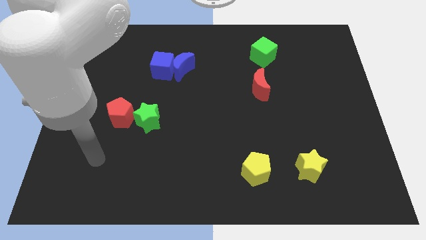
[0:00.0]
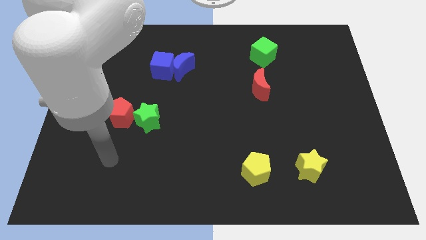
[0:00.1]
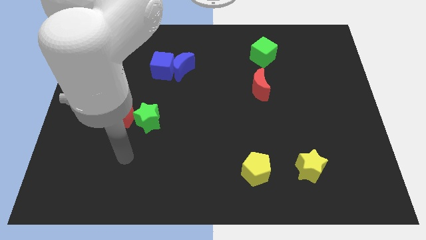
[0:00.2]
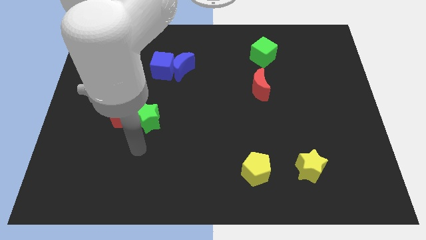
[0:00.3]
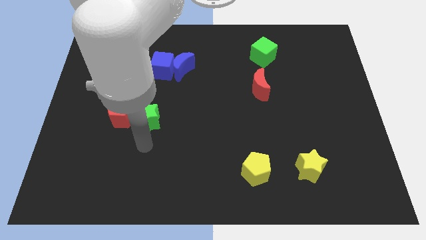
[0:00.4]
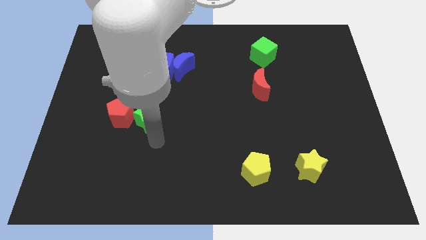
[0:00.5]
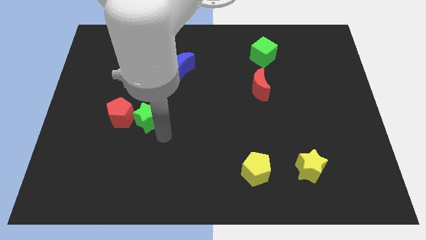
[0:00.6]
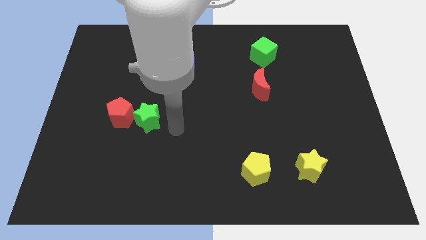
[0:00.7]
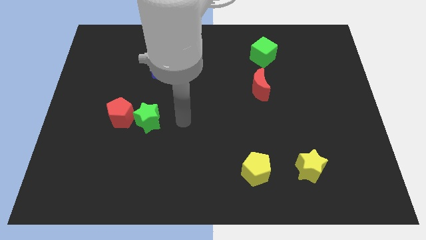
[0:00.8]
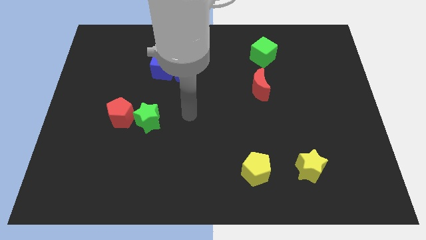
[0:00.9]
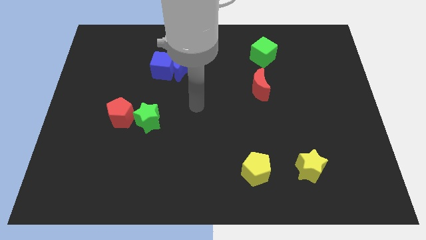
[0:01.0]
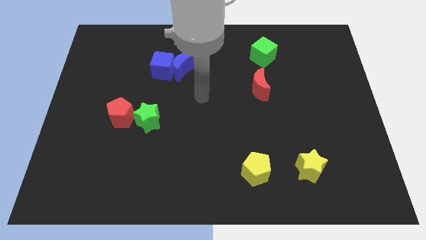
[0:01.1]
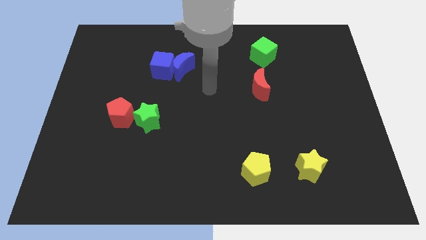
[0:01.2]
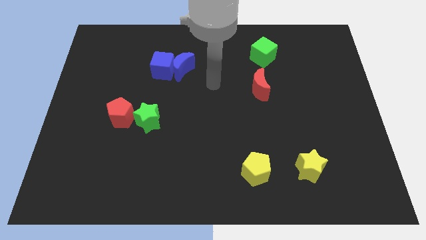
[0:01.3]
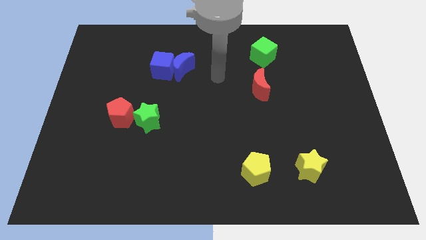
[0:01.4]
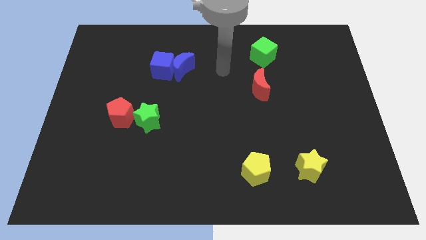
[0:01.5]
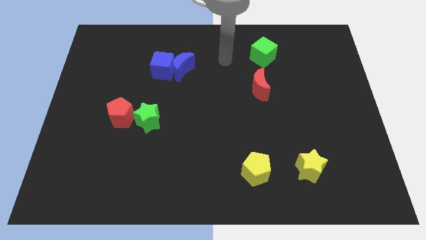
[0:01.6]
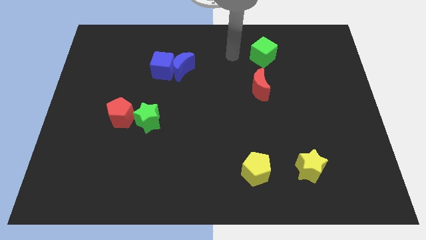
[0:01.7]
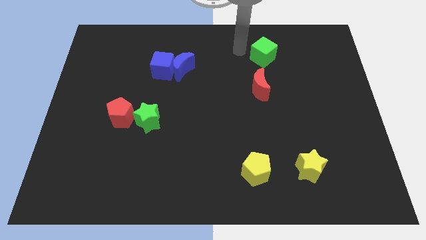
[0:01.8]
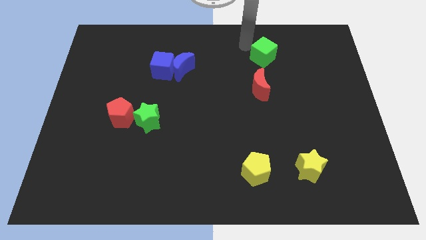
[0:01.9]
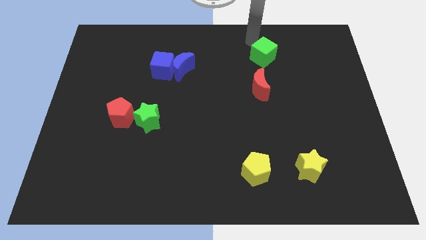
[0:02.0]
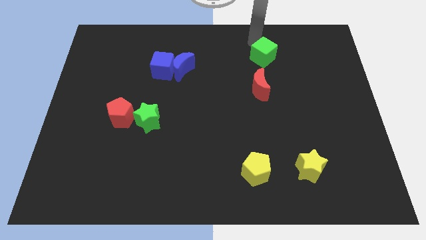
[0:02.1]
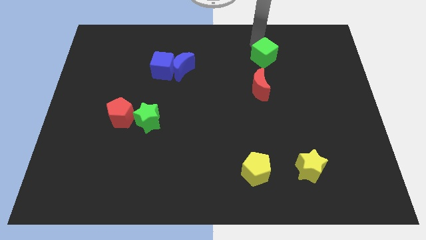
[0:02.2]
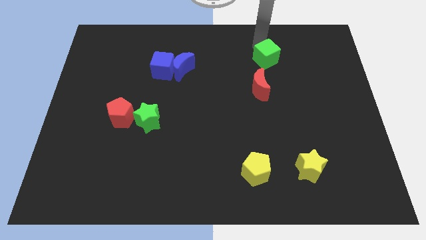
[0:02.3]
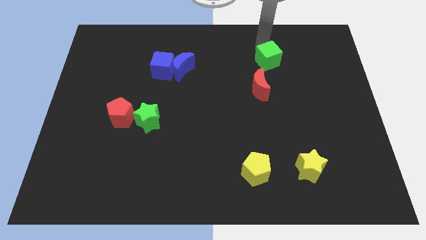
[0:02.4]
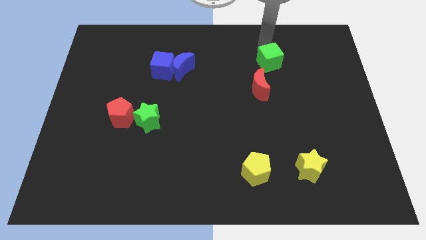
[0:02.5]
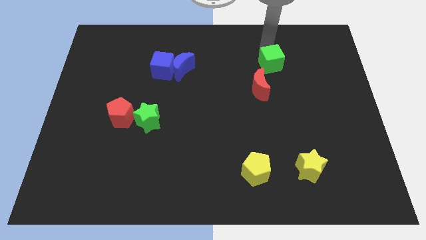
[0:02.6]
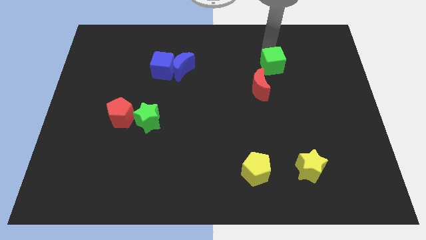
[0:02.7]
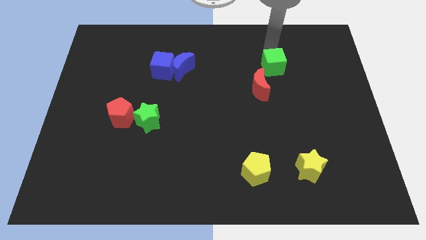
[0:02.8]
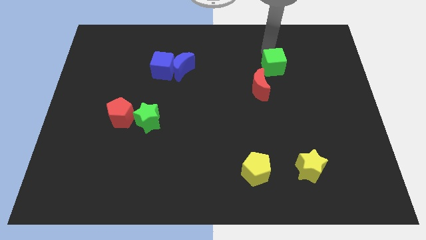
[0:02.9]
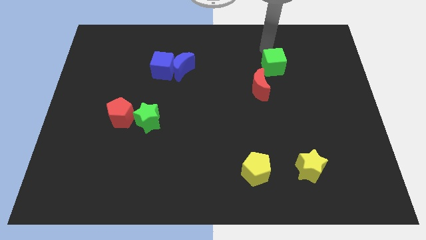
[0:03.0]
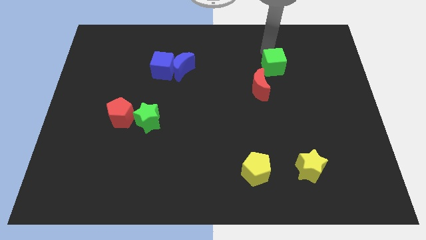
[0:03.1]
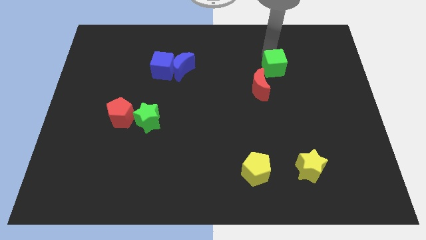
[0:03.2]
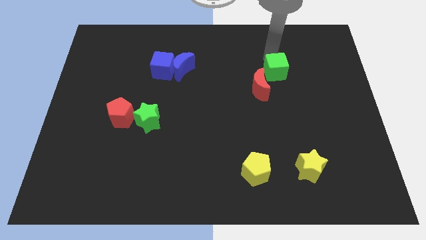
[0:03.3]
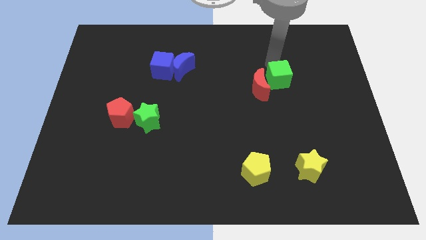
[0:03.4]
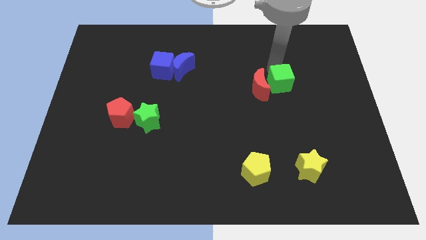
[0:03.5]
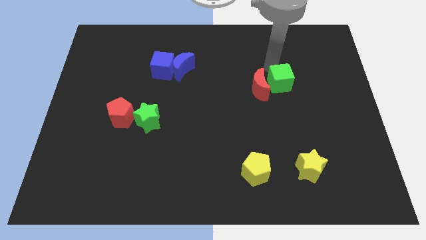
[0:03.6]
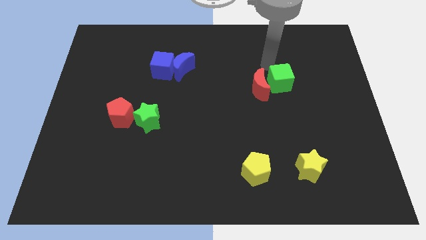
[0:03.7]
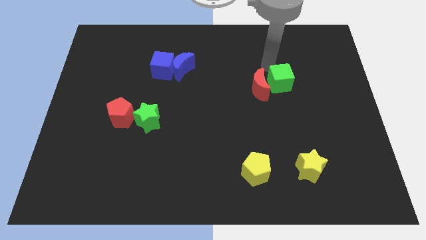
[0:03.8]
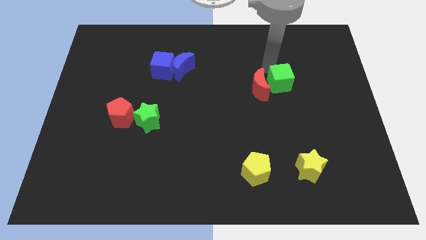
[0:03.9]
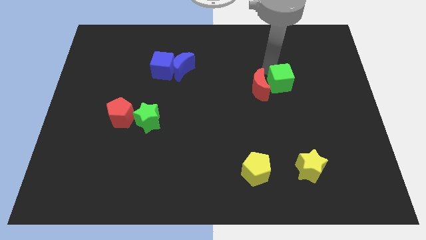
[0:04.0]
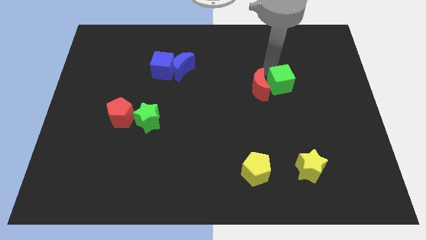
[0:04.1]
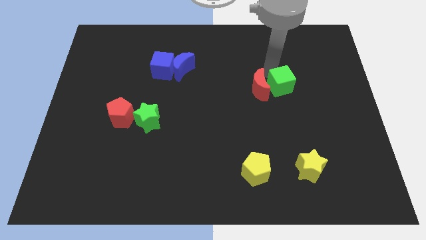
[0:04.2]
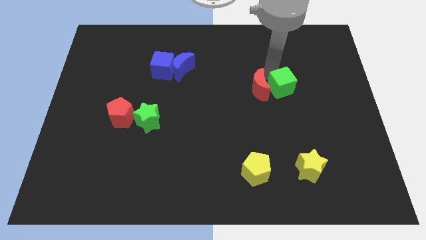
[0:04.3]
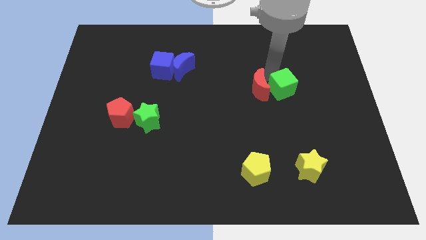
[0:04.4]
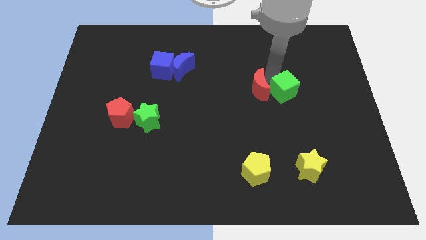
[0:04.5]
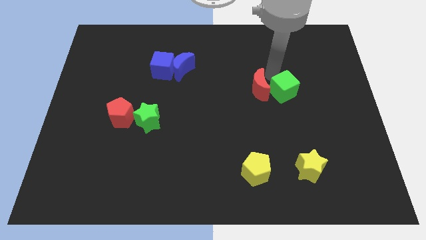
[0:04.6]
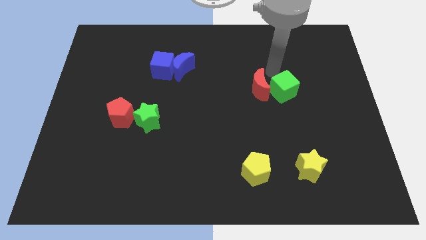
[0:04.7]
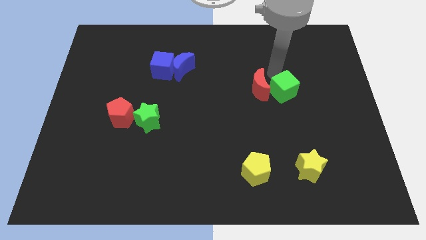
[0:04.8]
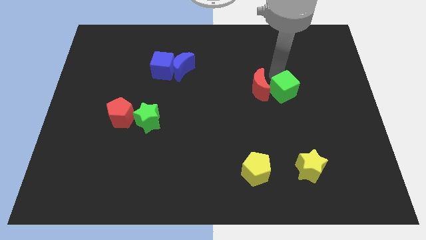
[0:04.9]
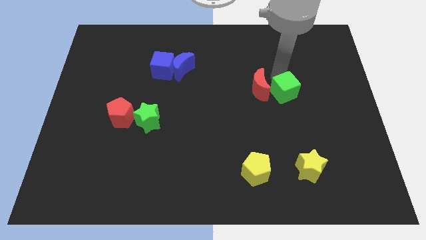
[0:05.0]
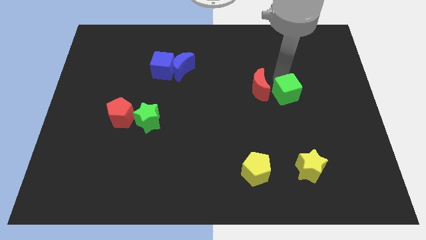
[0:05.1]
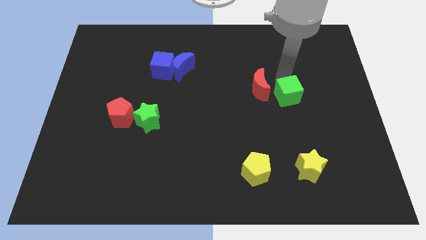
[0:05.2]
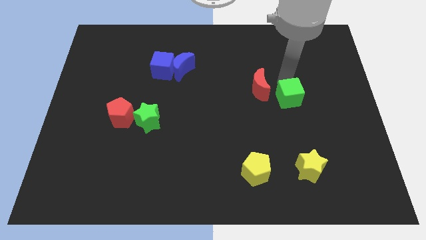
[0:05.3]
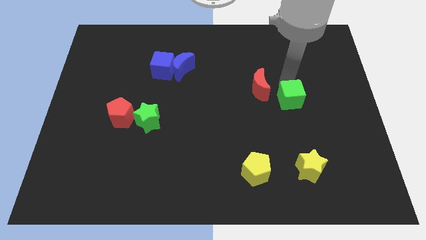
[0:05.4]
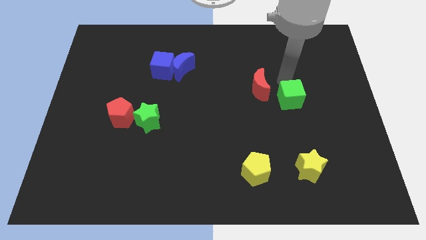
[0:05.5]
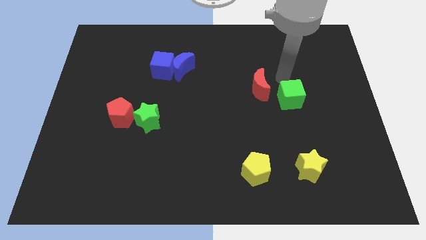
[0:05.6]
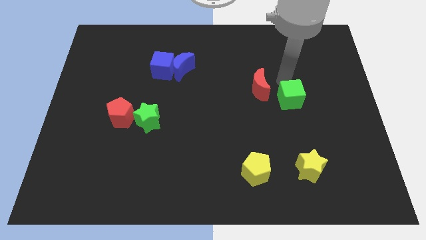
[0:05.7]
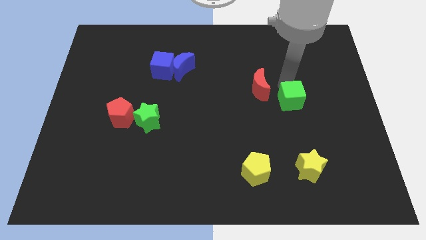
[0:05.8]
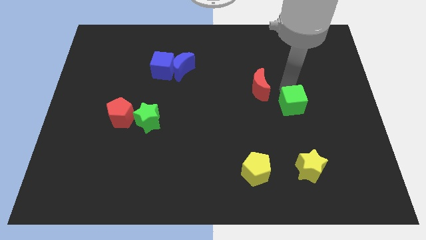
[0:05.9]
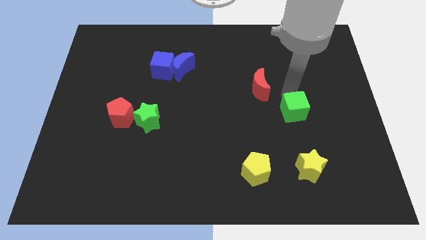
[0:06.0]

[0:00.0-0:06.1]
put the green cube to the top of the yellow star

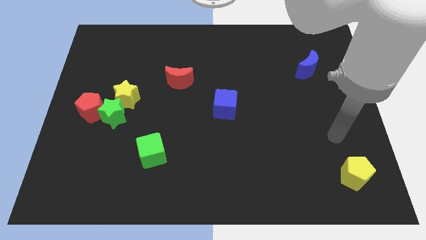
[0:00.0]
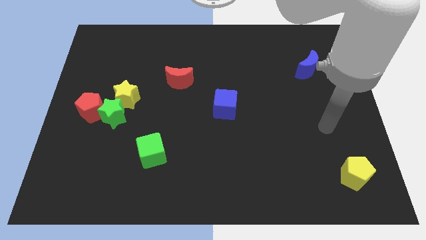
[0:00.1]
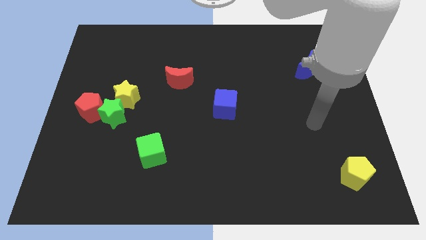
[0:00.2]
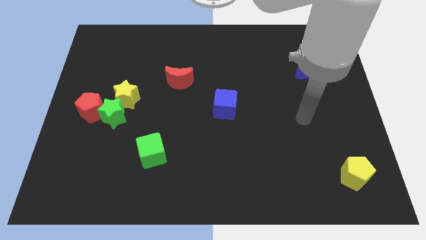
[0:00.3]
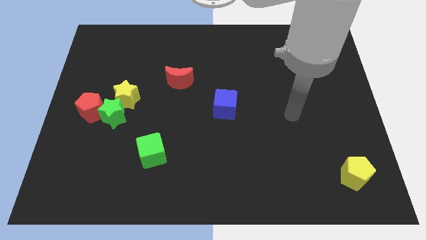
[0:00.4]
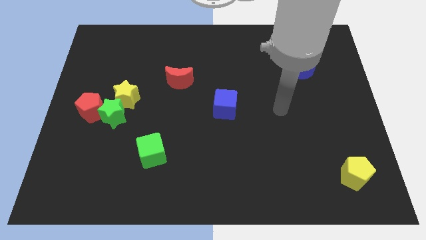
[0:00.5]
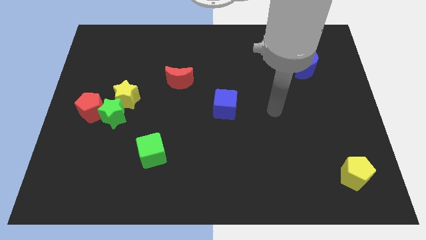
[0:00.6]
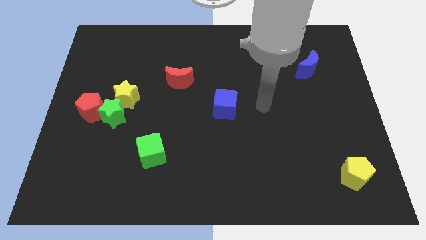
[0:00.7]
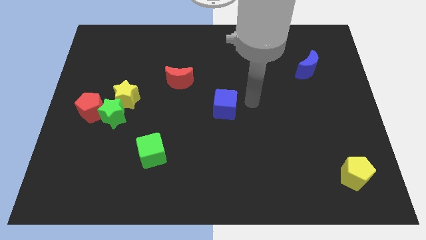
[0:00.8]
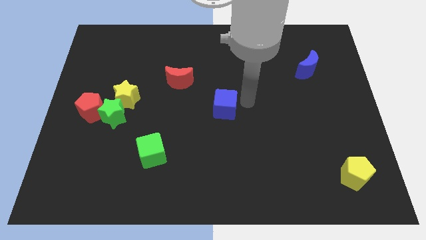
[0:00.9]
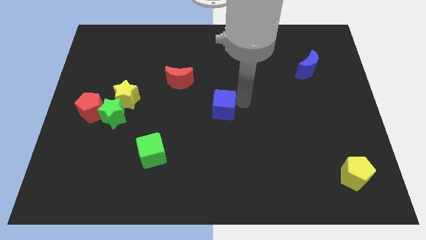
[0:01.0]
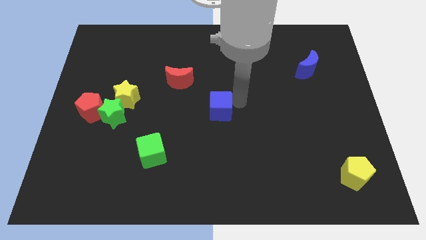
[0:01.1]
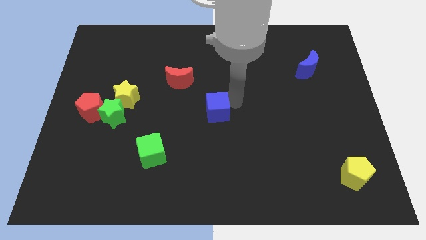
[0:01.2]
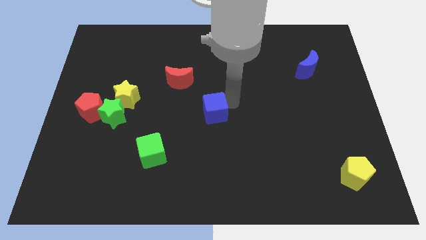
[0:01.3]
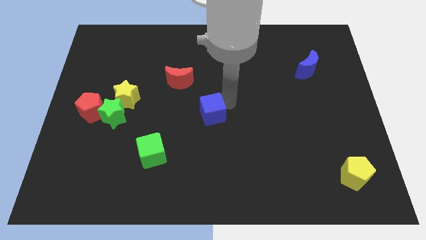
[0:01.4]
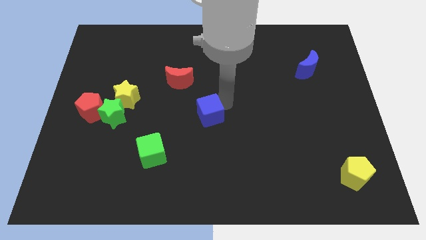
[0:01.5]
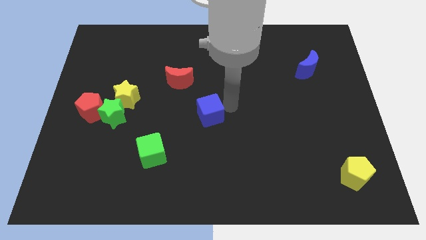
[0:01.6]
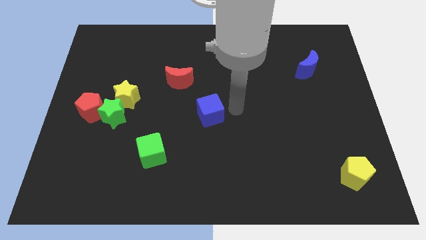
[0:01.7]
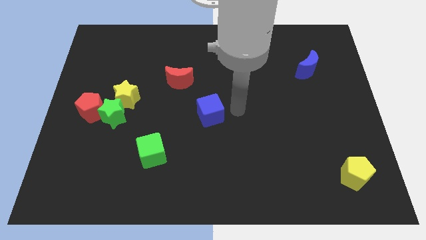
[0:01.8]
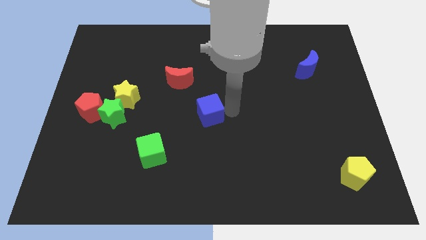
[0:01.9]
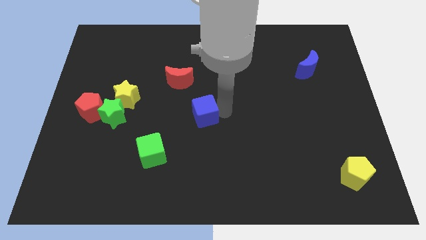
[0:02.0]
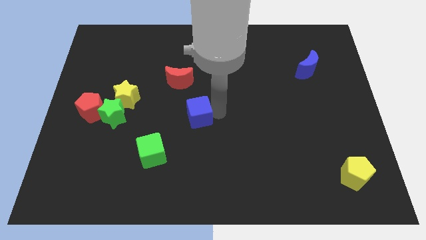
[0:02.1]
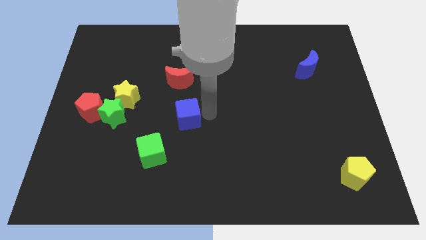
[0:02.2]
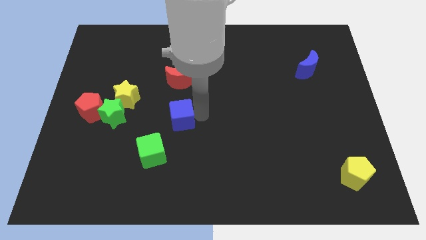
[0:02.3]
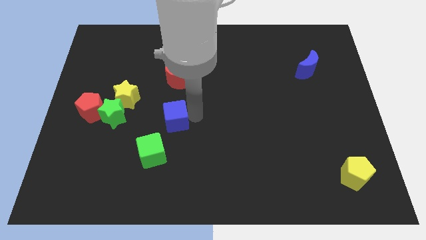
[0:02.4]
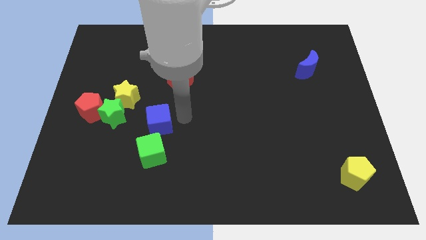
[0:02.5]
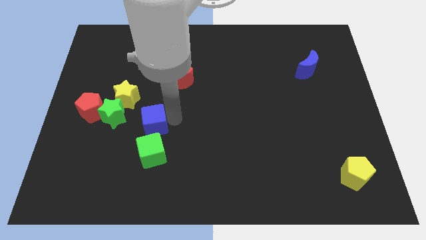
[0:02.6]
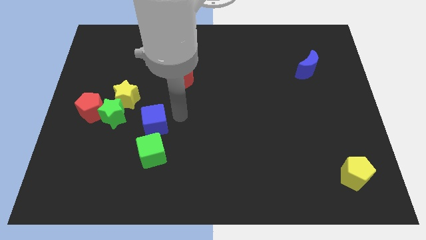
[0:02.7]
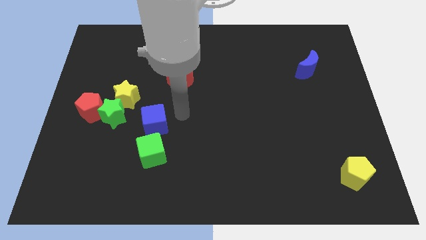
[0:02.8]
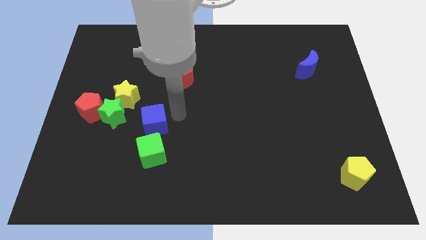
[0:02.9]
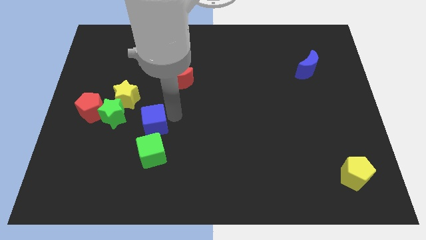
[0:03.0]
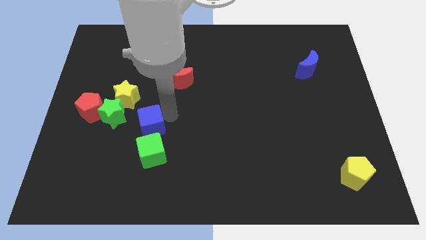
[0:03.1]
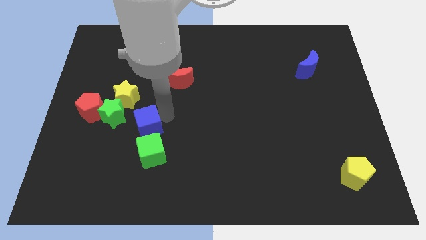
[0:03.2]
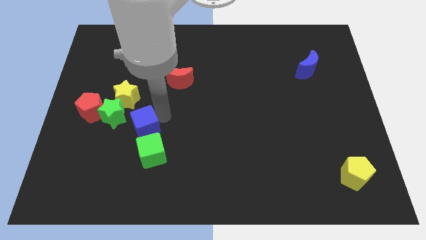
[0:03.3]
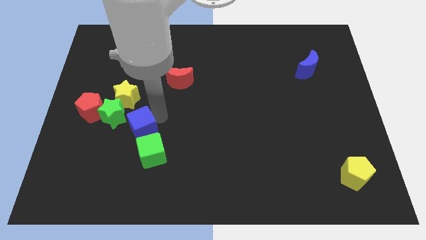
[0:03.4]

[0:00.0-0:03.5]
move the blue cube to the bottom side of the yellow star
